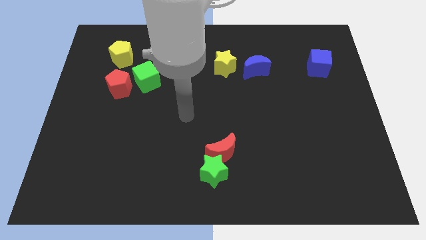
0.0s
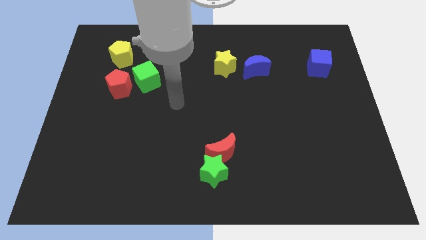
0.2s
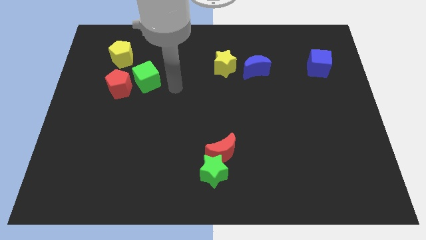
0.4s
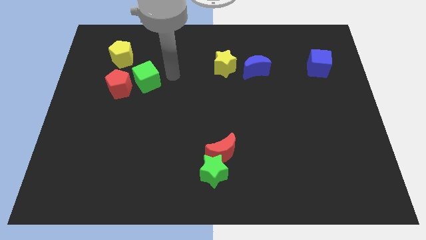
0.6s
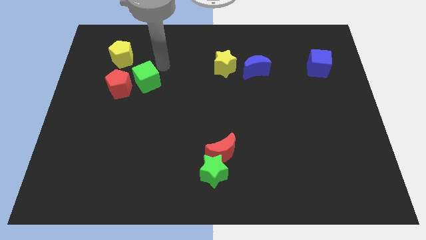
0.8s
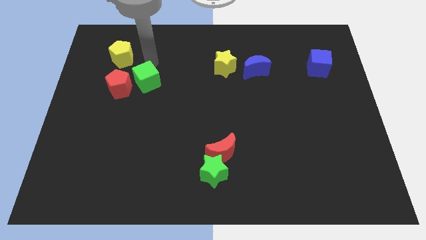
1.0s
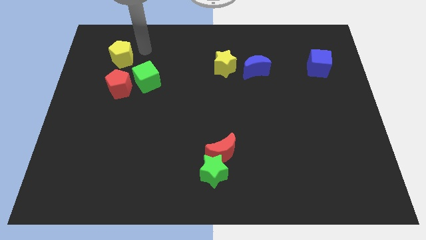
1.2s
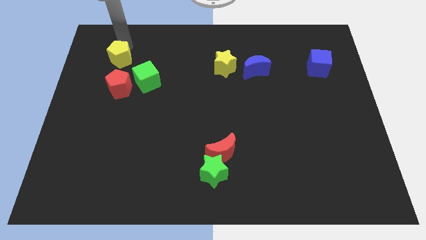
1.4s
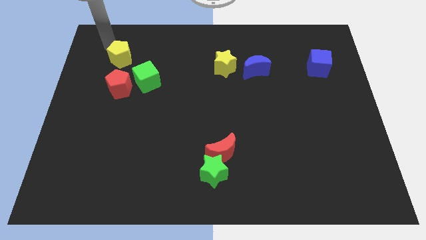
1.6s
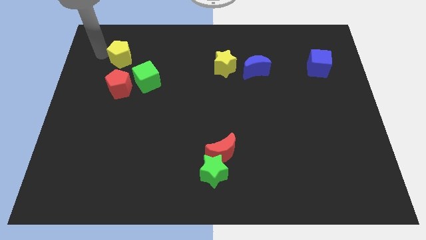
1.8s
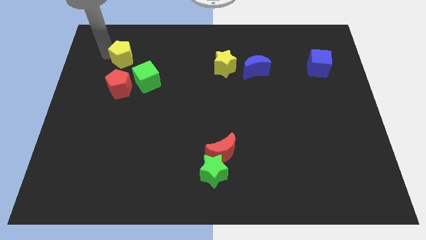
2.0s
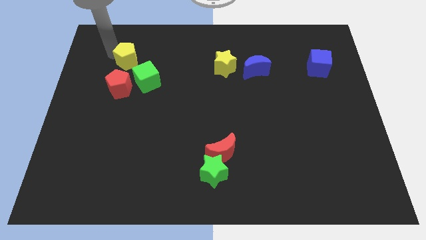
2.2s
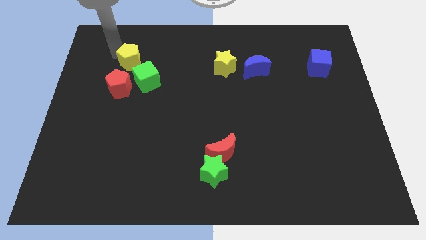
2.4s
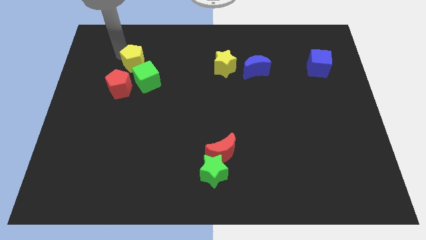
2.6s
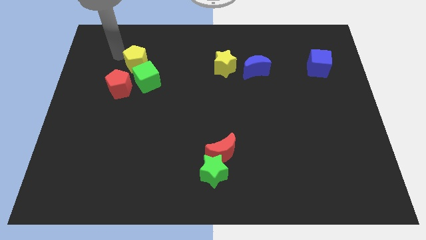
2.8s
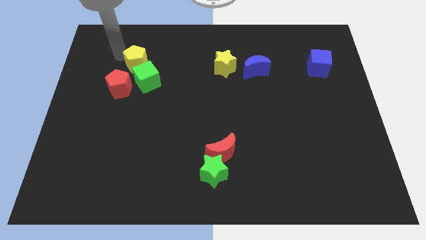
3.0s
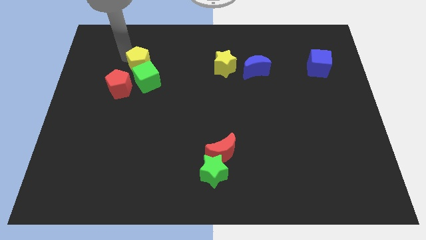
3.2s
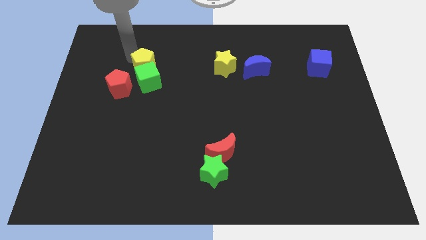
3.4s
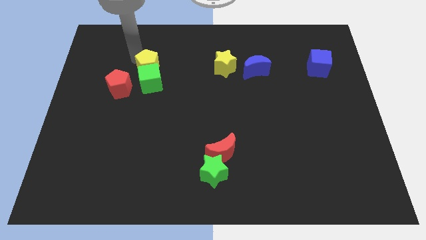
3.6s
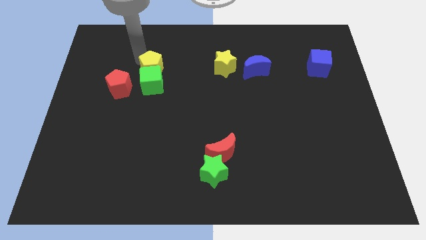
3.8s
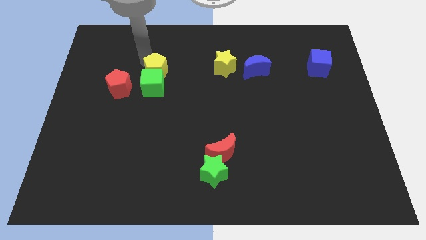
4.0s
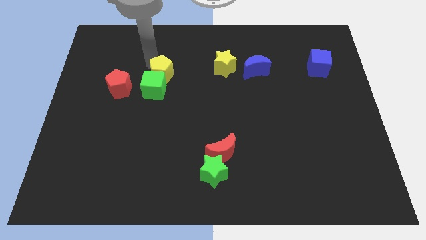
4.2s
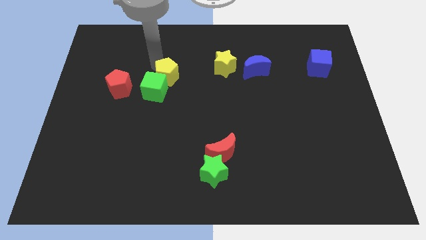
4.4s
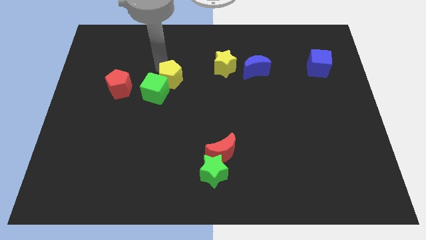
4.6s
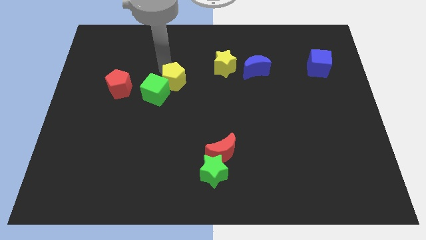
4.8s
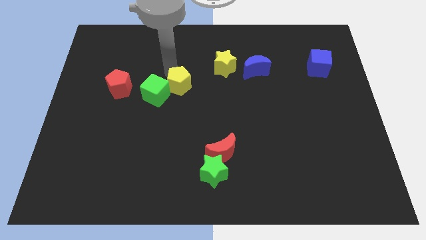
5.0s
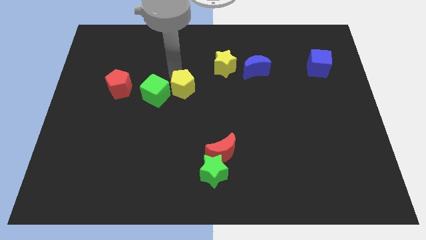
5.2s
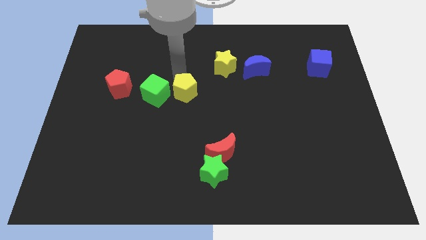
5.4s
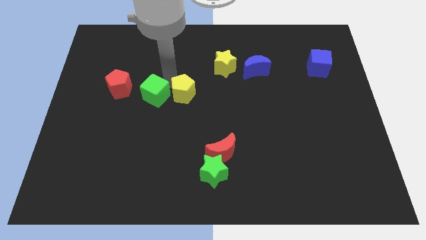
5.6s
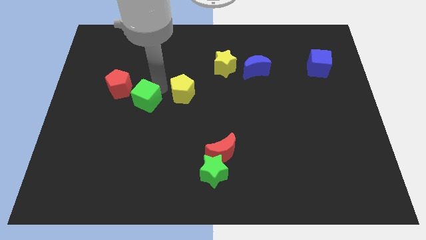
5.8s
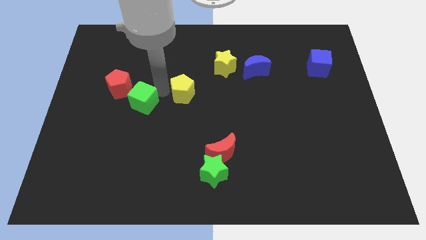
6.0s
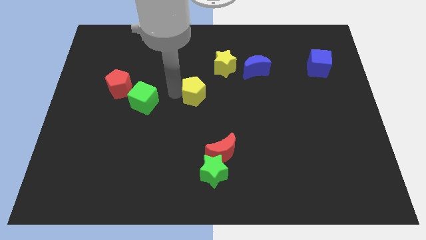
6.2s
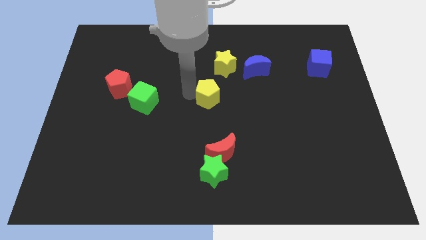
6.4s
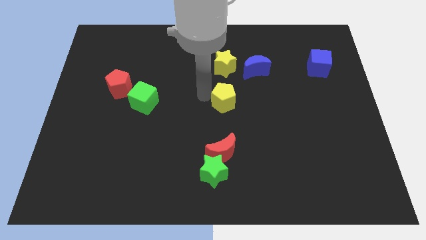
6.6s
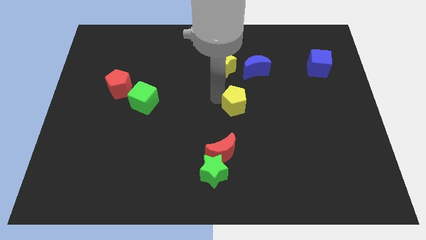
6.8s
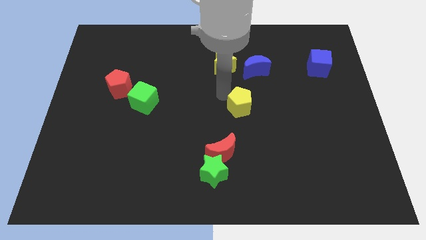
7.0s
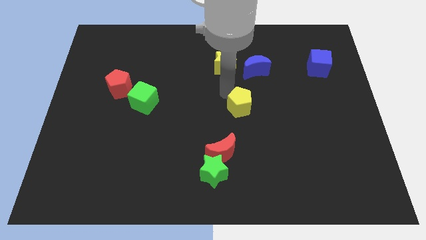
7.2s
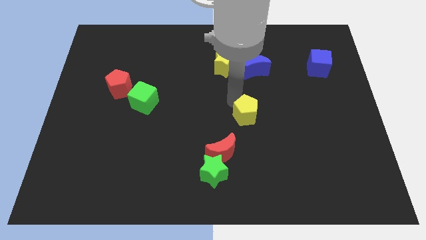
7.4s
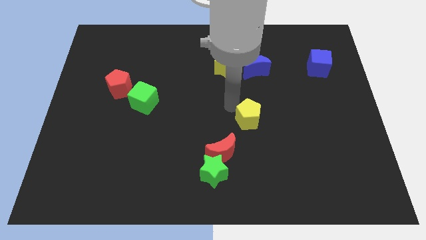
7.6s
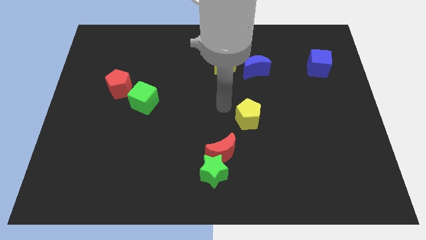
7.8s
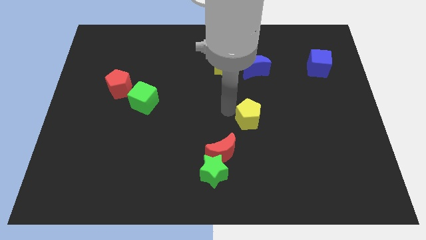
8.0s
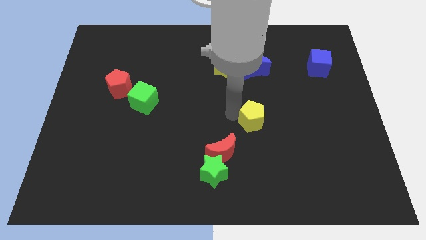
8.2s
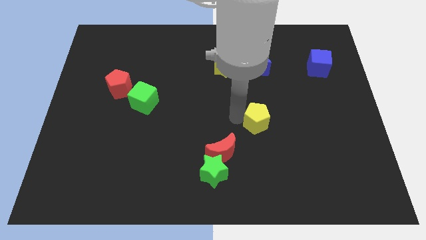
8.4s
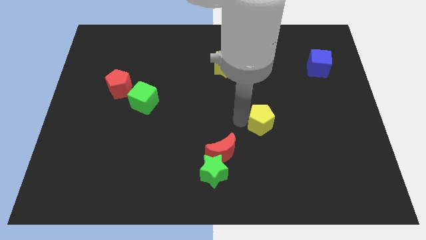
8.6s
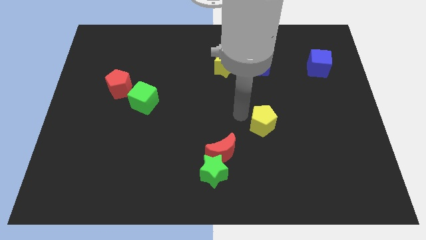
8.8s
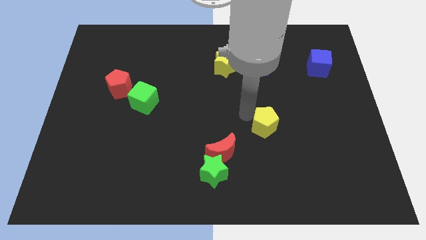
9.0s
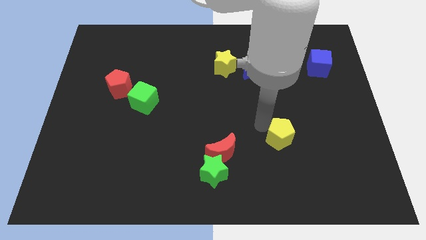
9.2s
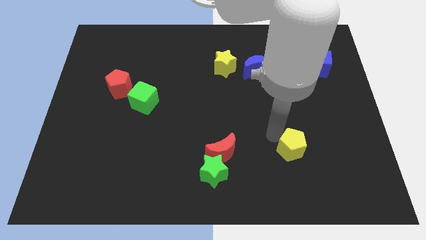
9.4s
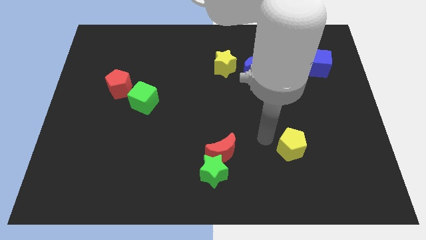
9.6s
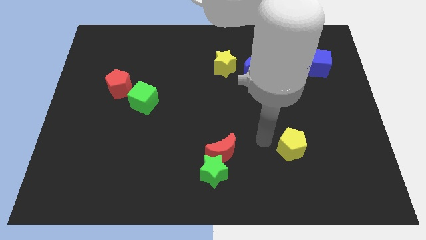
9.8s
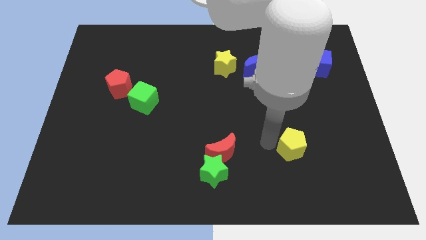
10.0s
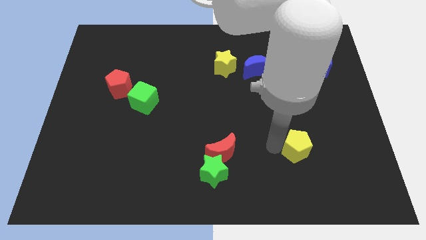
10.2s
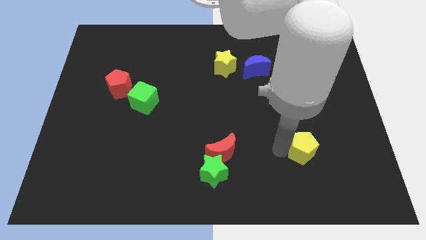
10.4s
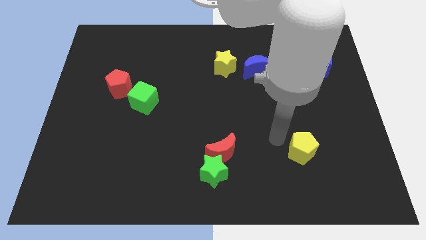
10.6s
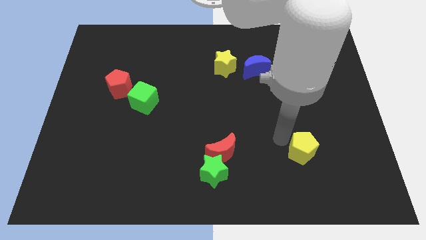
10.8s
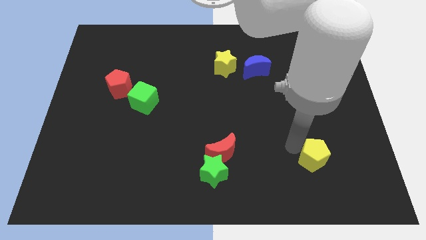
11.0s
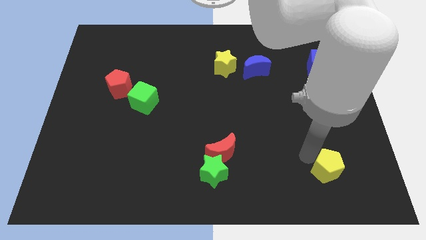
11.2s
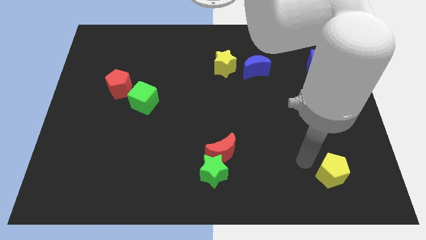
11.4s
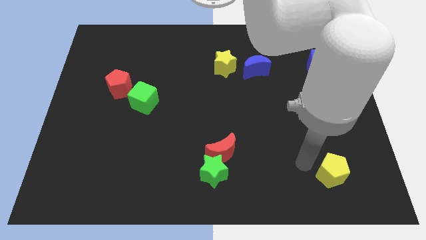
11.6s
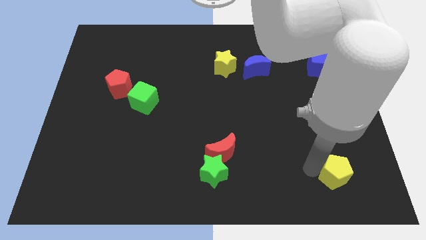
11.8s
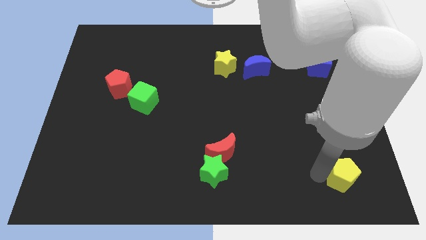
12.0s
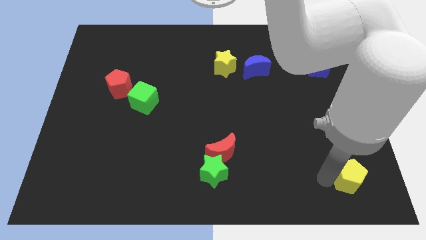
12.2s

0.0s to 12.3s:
move the yellow pentagon to the bottom right

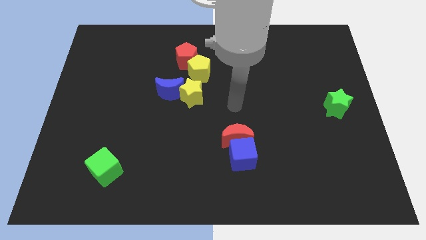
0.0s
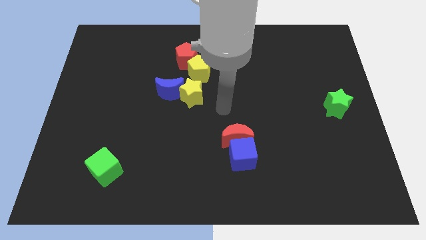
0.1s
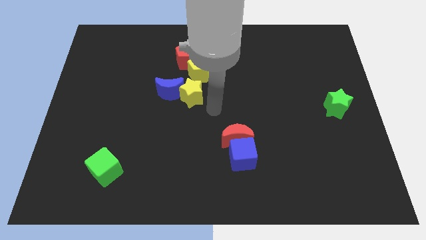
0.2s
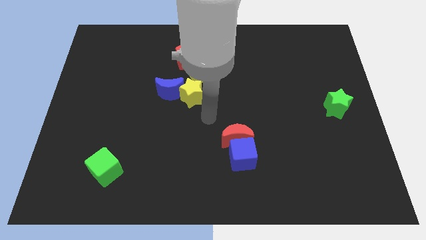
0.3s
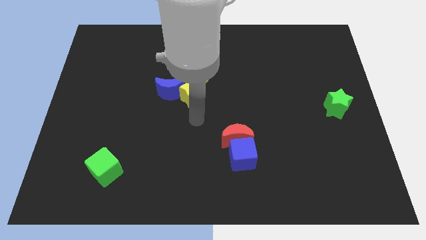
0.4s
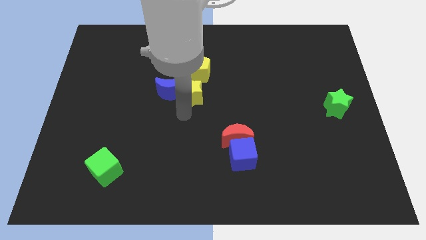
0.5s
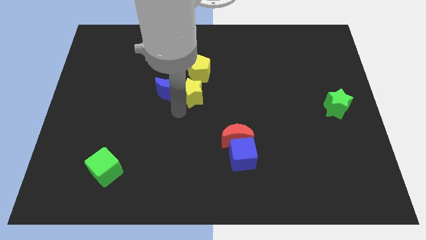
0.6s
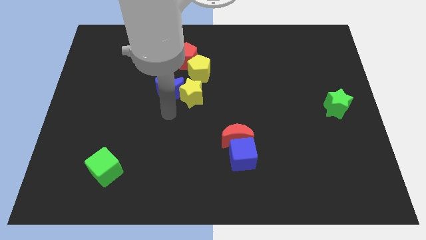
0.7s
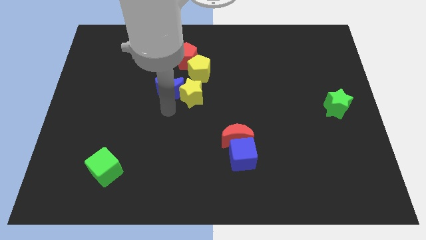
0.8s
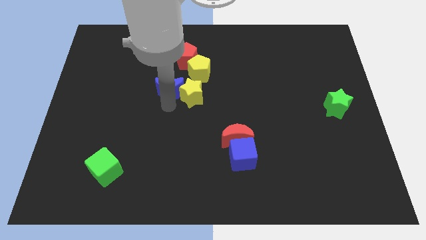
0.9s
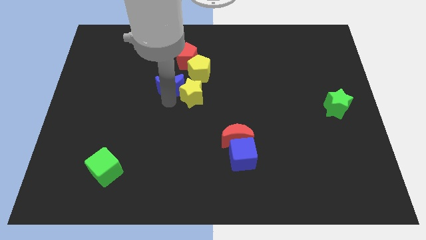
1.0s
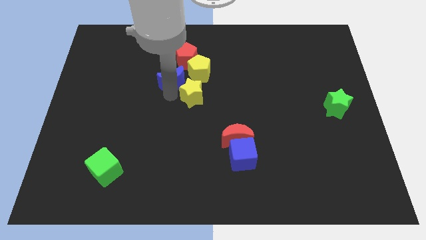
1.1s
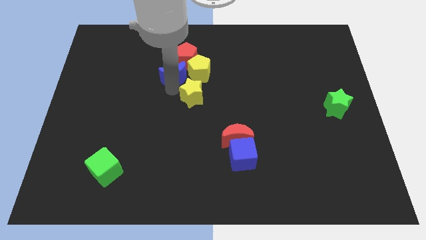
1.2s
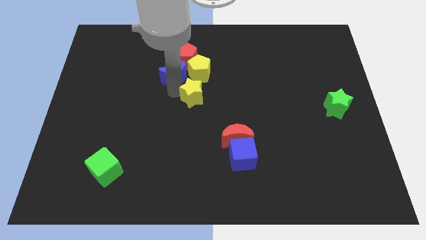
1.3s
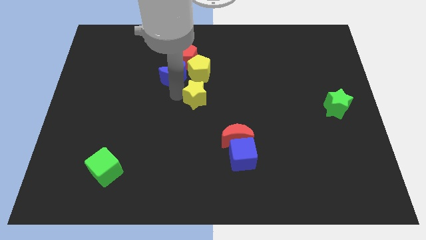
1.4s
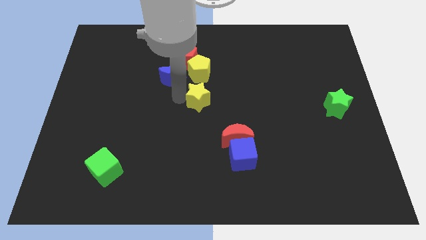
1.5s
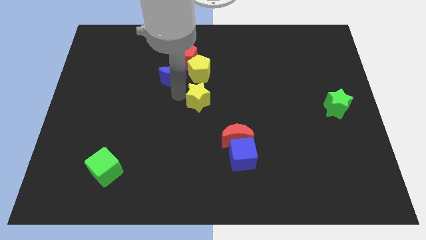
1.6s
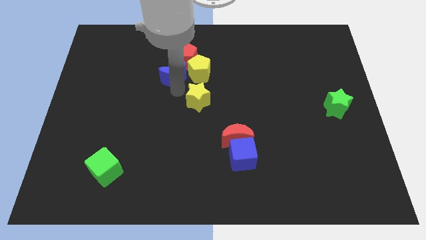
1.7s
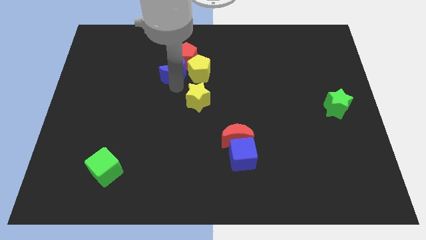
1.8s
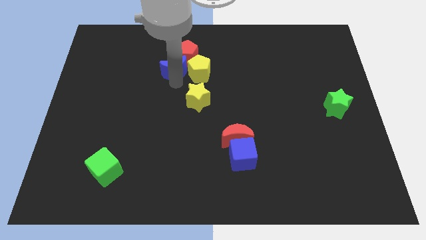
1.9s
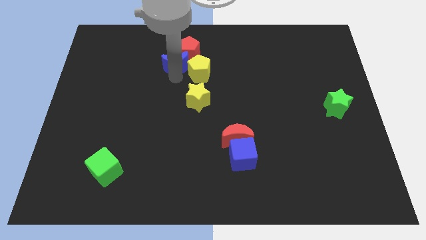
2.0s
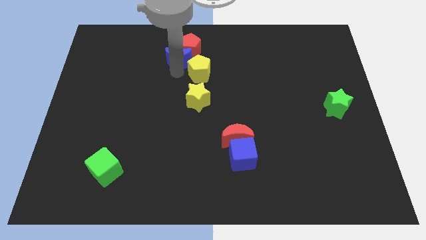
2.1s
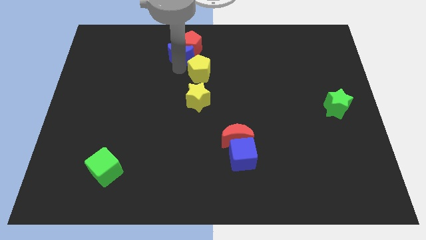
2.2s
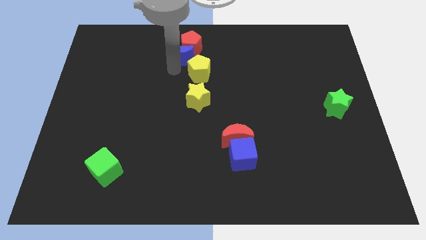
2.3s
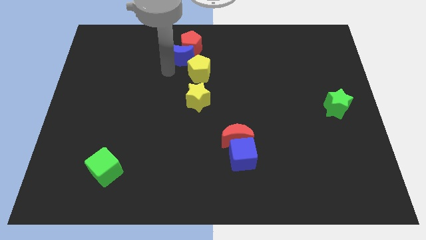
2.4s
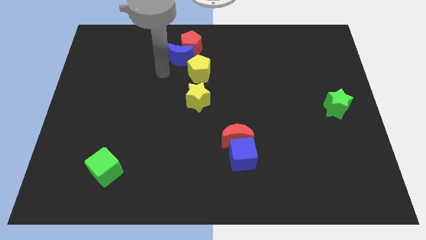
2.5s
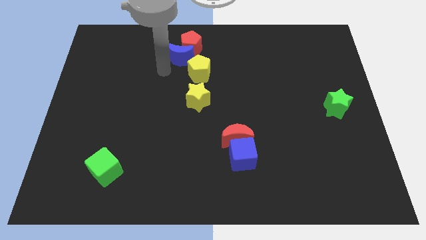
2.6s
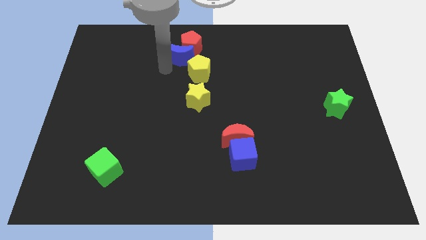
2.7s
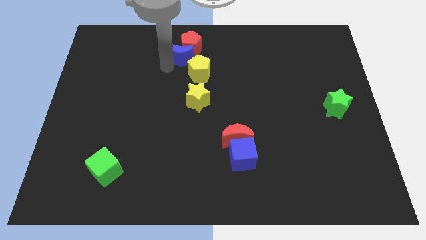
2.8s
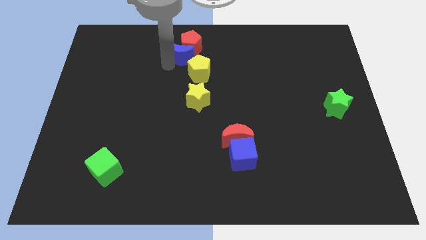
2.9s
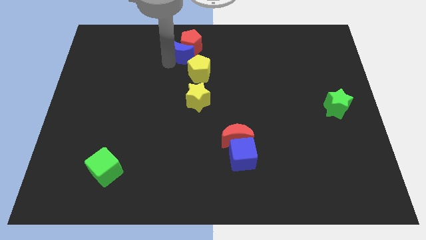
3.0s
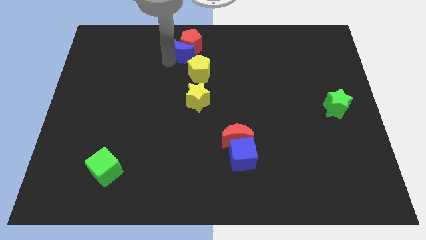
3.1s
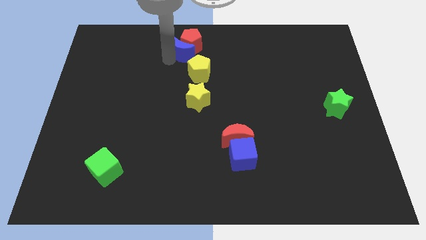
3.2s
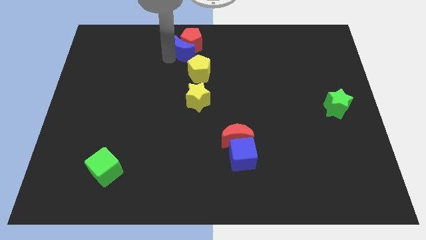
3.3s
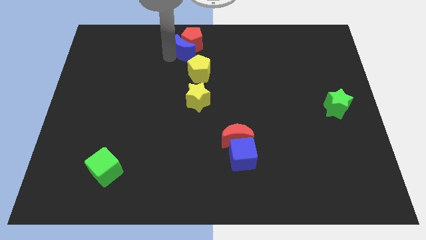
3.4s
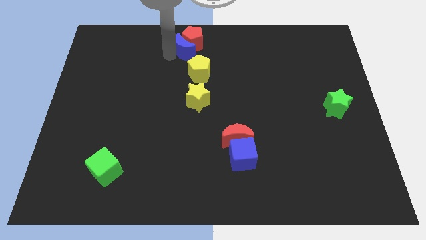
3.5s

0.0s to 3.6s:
move the blue moon to the towards your base
